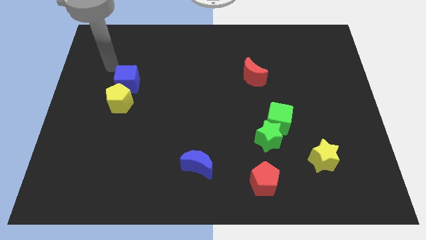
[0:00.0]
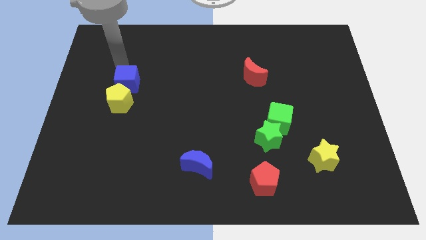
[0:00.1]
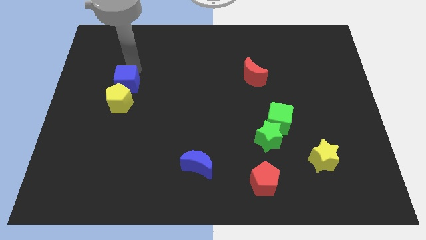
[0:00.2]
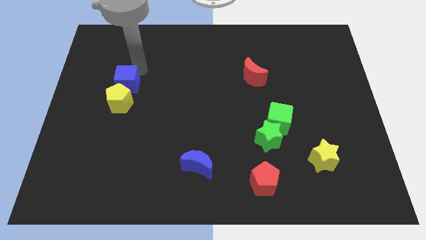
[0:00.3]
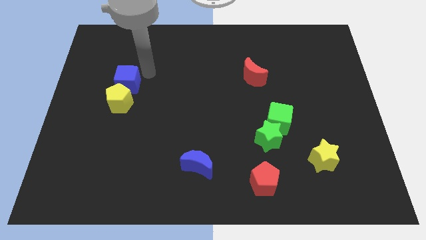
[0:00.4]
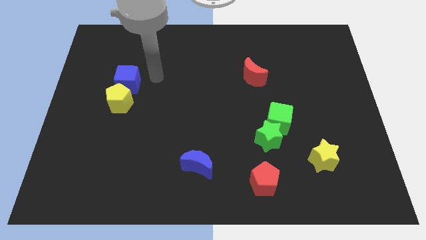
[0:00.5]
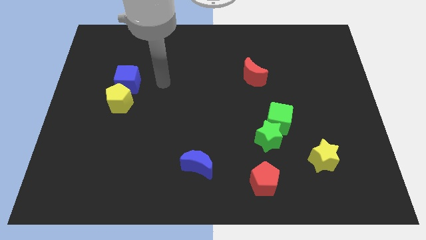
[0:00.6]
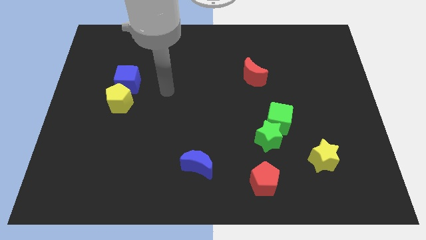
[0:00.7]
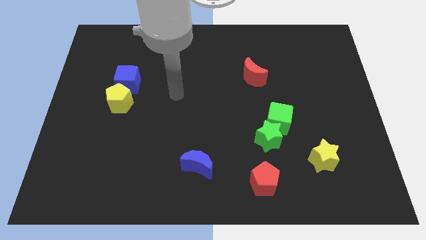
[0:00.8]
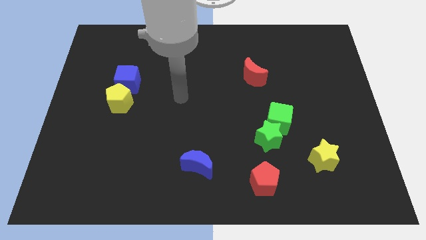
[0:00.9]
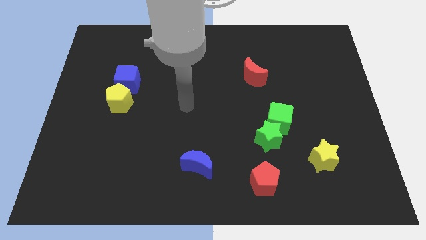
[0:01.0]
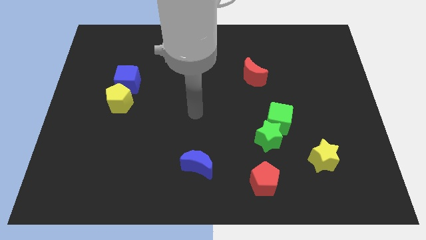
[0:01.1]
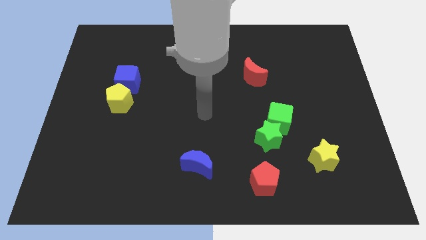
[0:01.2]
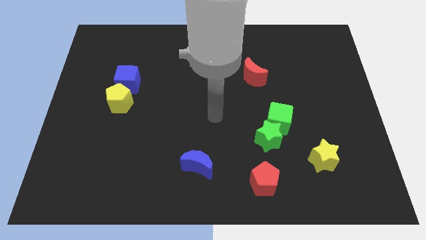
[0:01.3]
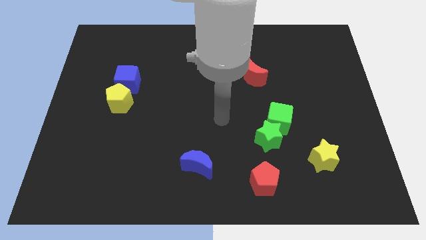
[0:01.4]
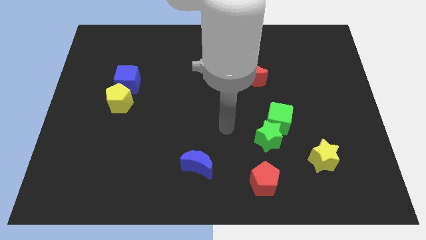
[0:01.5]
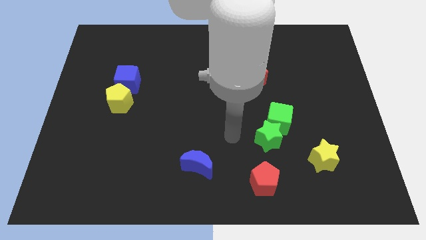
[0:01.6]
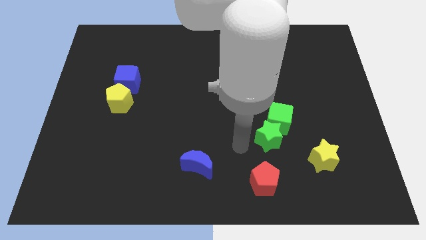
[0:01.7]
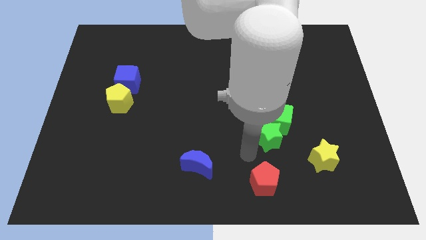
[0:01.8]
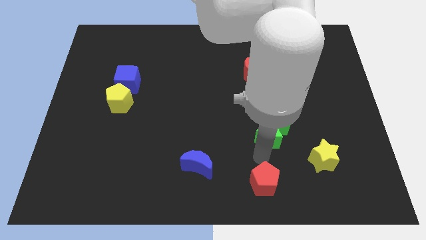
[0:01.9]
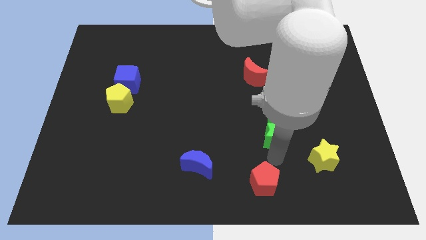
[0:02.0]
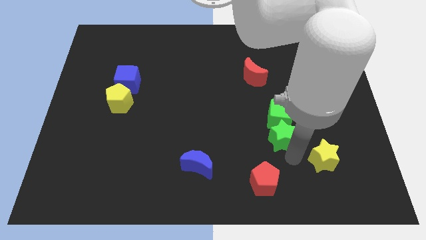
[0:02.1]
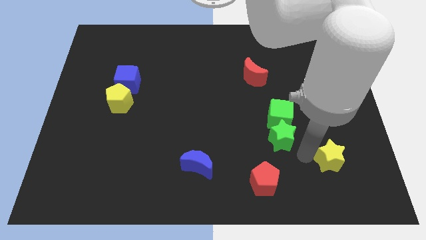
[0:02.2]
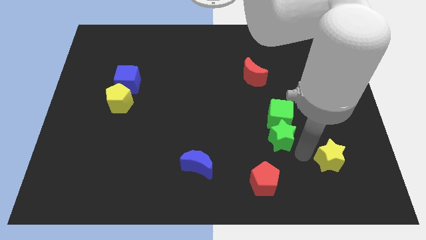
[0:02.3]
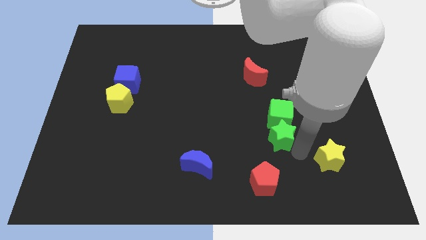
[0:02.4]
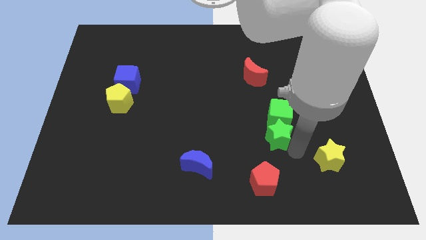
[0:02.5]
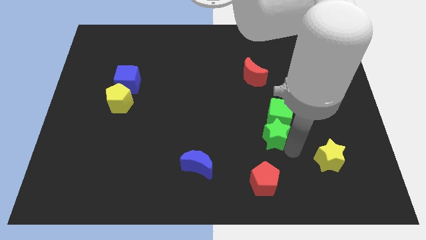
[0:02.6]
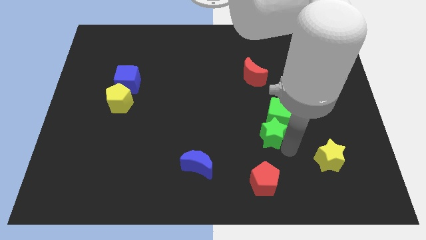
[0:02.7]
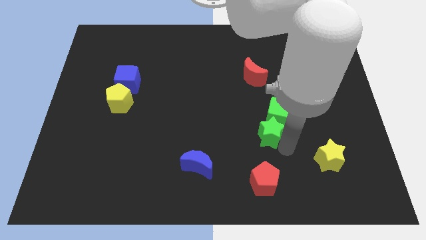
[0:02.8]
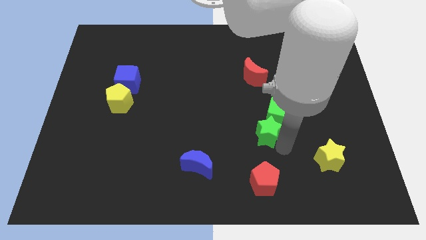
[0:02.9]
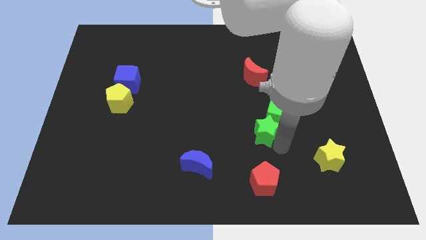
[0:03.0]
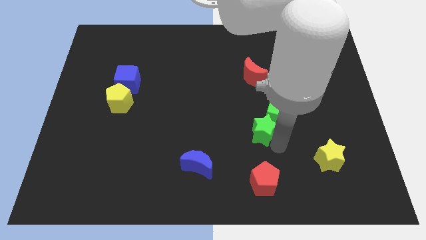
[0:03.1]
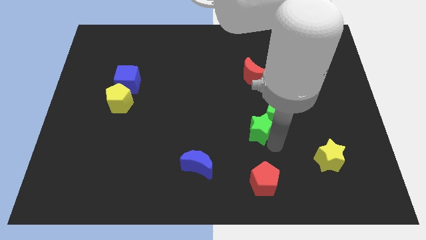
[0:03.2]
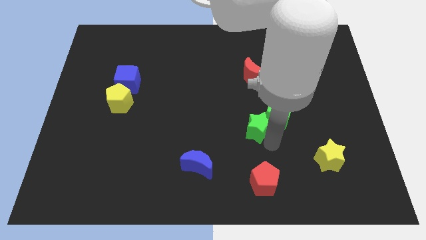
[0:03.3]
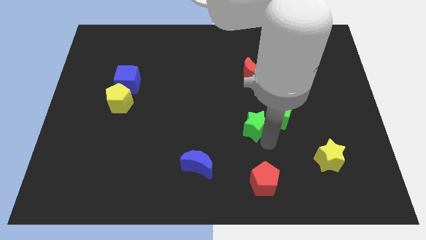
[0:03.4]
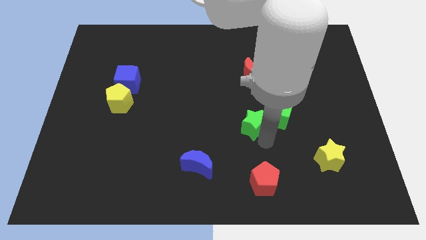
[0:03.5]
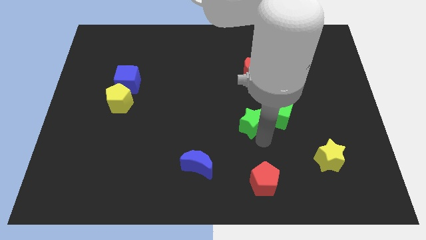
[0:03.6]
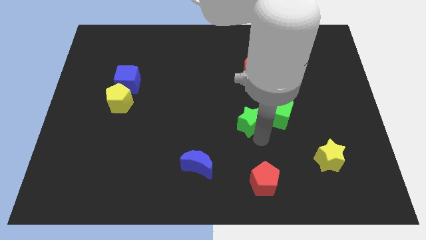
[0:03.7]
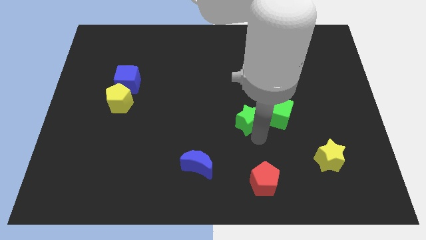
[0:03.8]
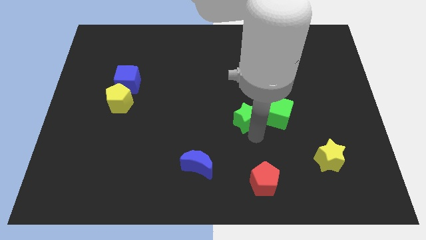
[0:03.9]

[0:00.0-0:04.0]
slightly slide the green star diagonally upwards and to the left

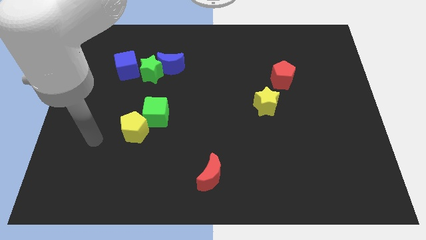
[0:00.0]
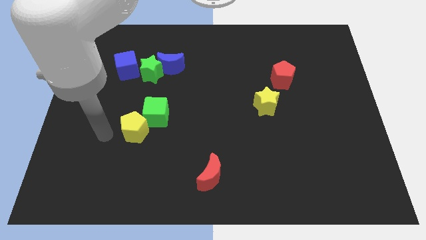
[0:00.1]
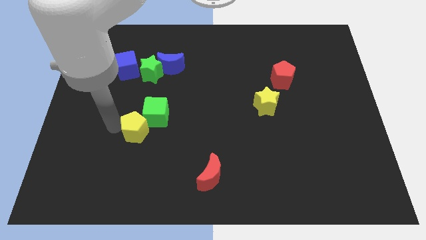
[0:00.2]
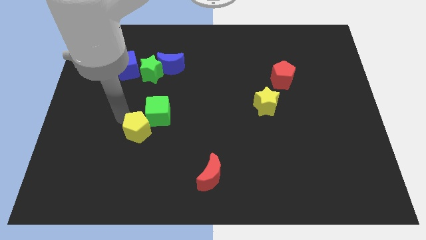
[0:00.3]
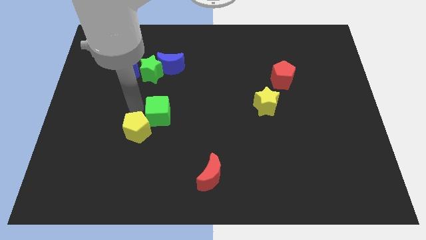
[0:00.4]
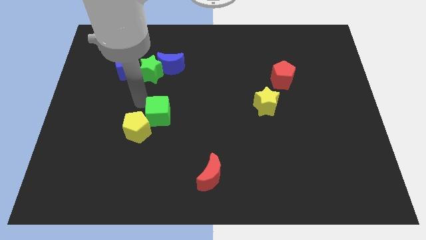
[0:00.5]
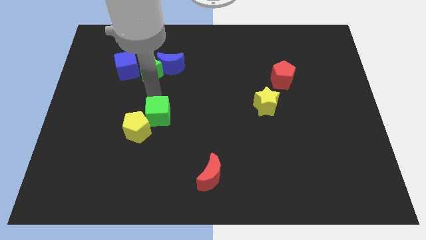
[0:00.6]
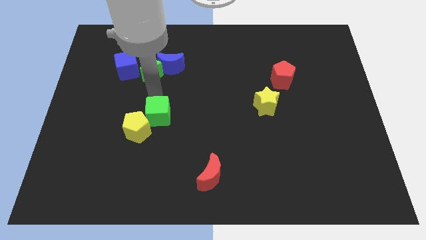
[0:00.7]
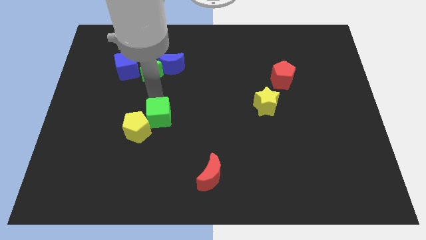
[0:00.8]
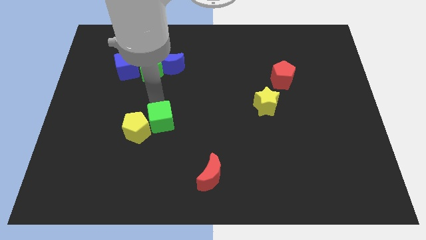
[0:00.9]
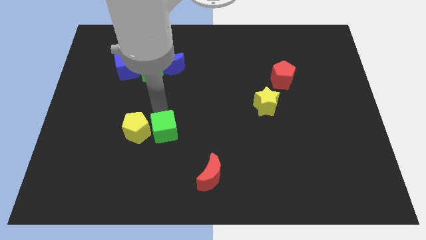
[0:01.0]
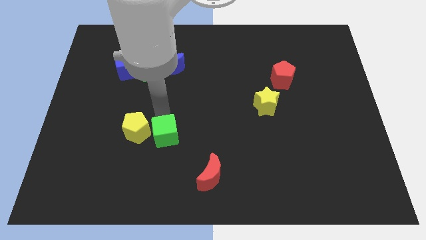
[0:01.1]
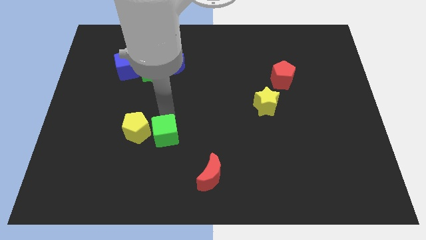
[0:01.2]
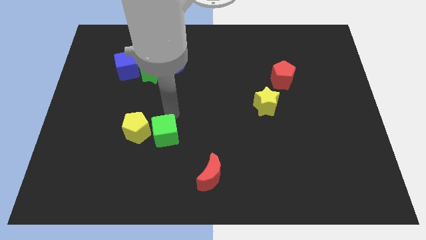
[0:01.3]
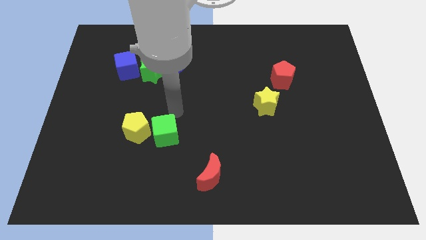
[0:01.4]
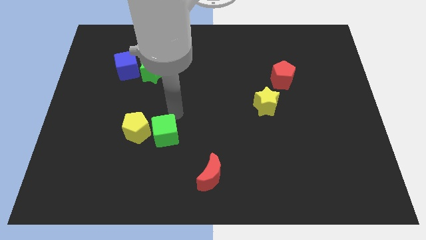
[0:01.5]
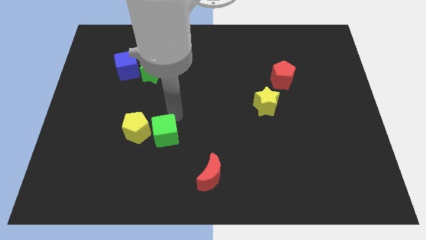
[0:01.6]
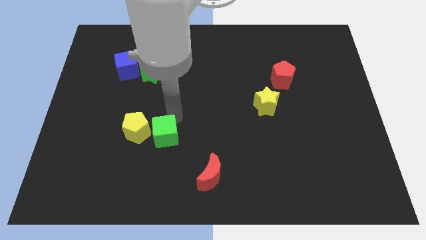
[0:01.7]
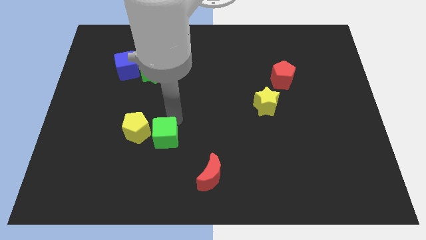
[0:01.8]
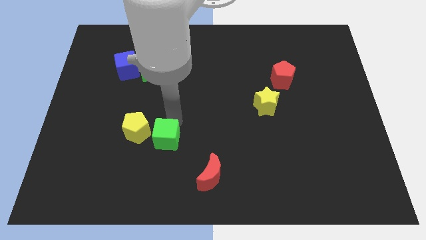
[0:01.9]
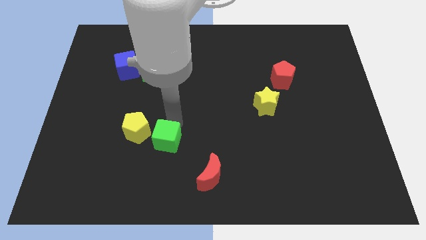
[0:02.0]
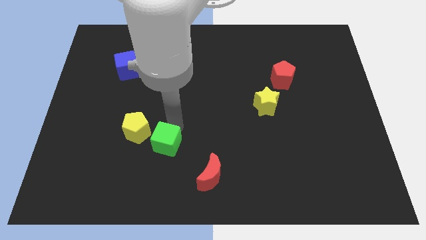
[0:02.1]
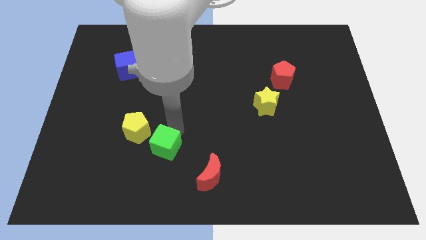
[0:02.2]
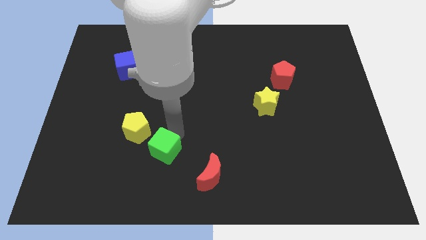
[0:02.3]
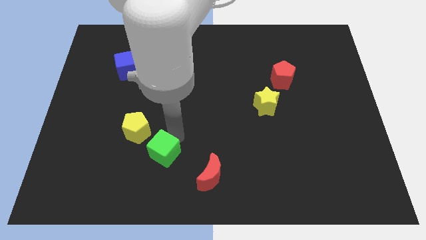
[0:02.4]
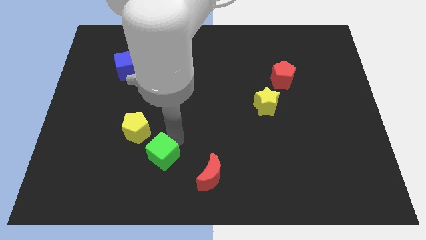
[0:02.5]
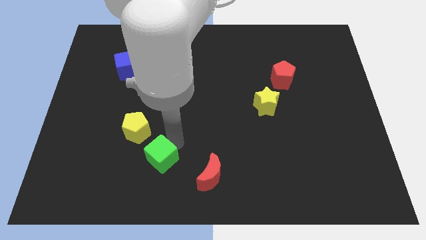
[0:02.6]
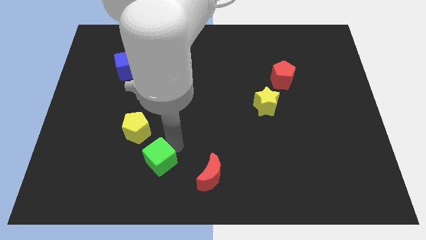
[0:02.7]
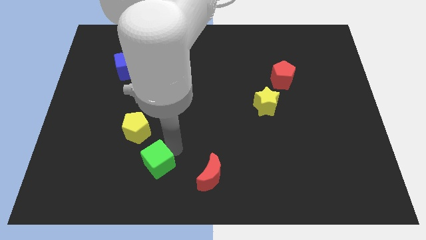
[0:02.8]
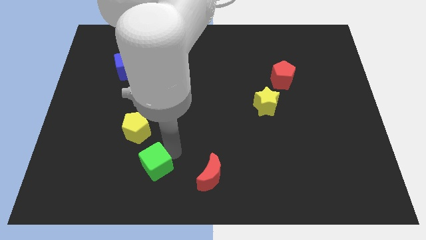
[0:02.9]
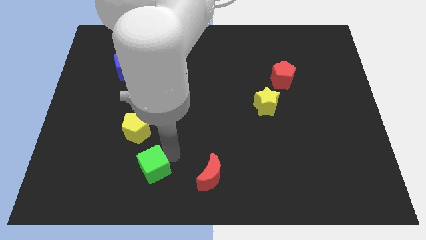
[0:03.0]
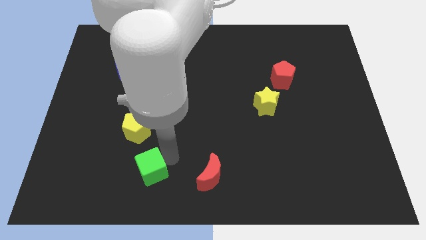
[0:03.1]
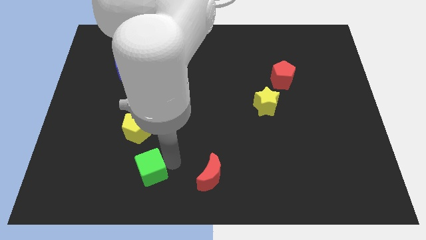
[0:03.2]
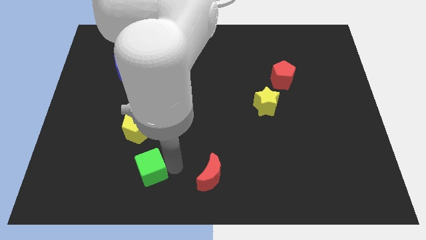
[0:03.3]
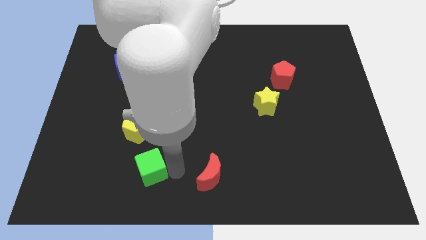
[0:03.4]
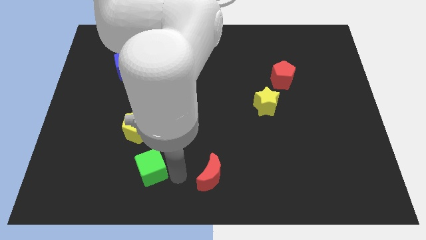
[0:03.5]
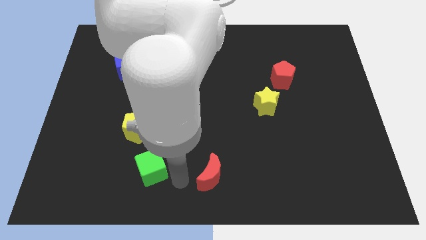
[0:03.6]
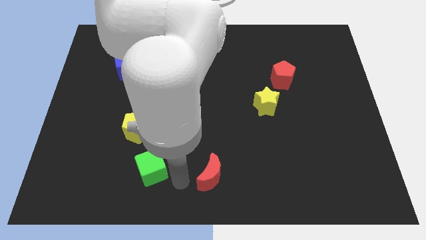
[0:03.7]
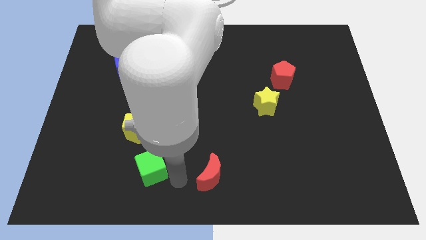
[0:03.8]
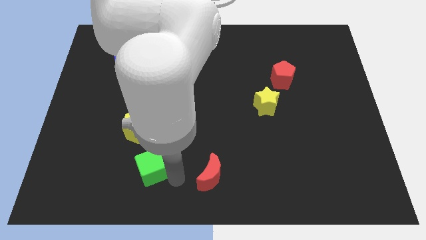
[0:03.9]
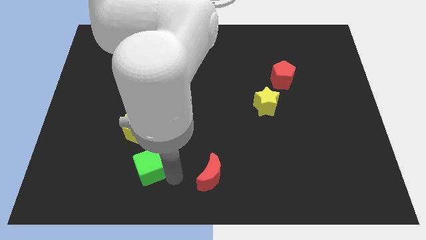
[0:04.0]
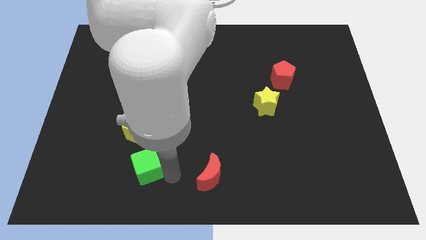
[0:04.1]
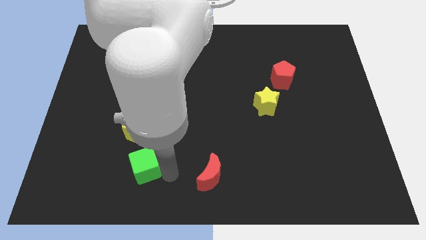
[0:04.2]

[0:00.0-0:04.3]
slightly move the green cube downwards and then left
